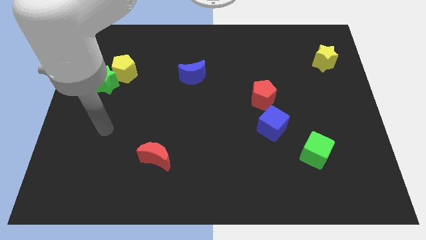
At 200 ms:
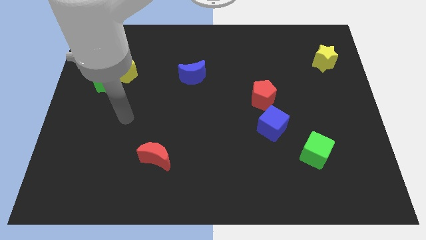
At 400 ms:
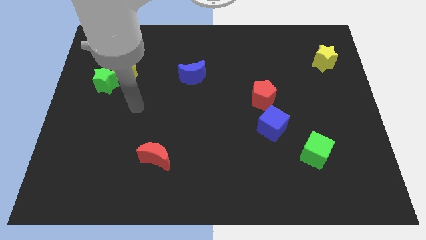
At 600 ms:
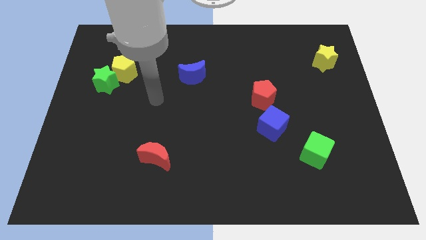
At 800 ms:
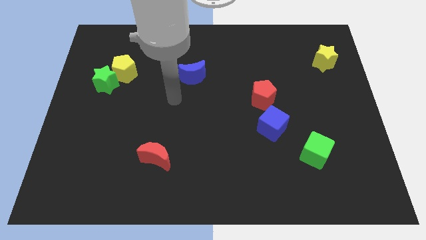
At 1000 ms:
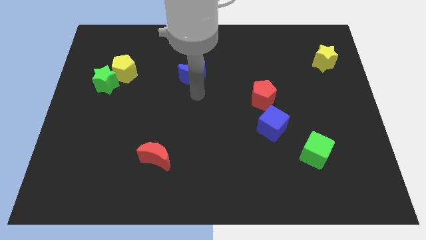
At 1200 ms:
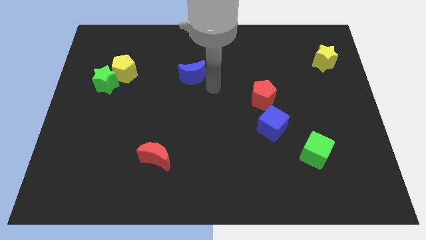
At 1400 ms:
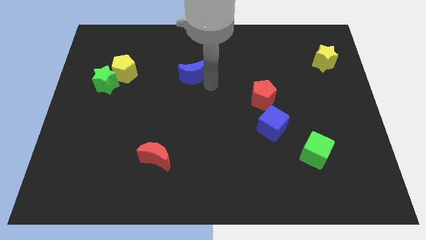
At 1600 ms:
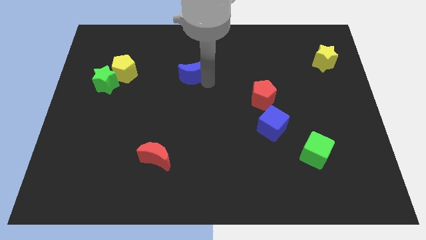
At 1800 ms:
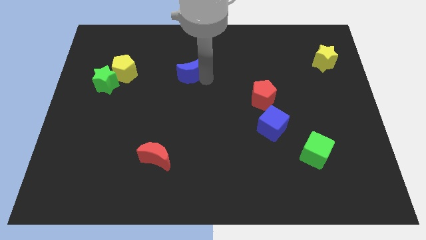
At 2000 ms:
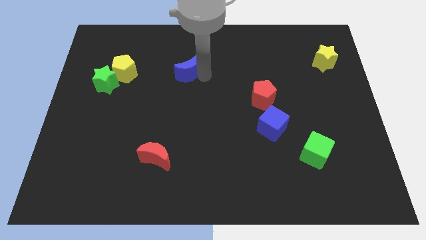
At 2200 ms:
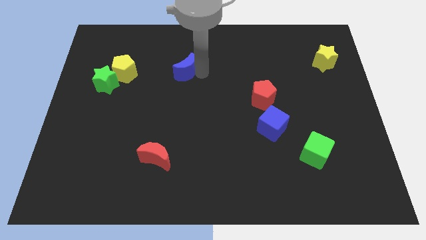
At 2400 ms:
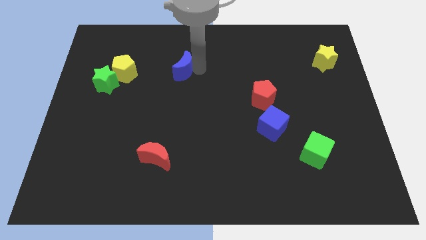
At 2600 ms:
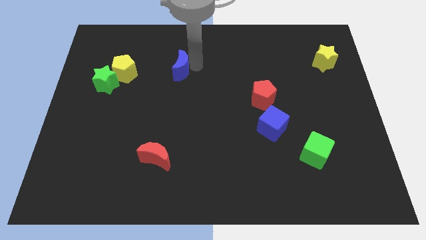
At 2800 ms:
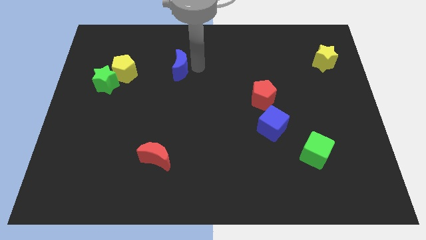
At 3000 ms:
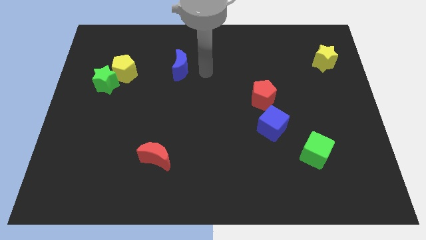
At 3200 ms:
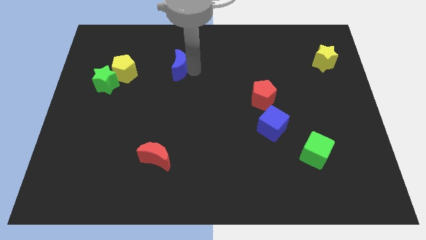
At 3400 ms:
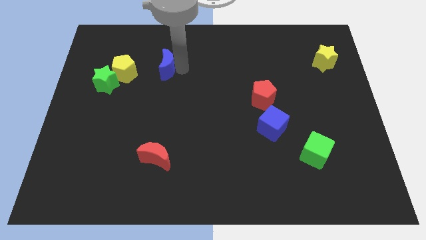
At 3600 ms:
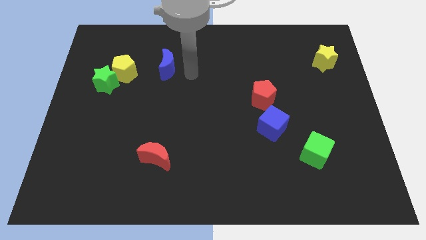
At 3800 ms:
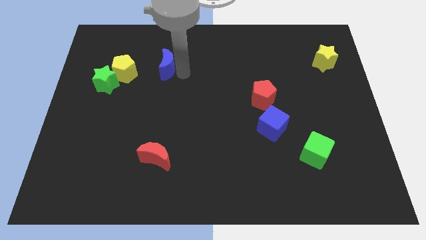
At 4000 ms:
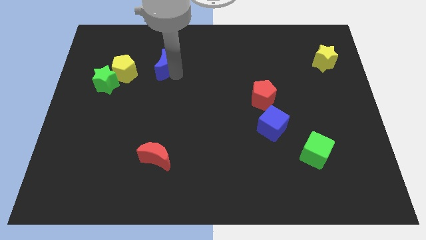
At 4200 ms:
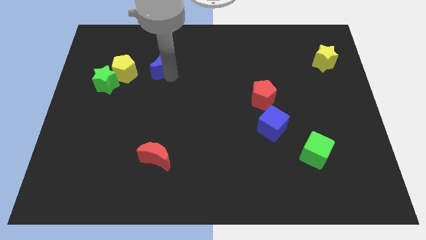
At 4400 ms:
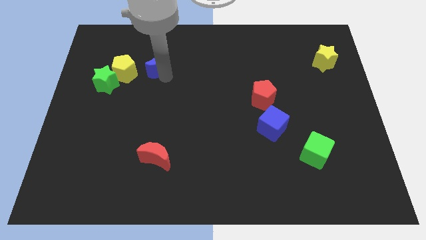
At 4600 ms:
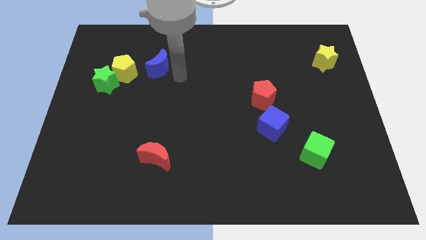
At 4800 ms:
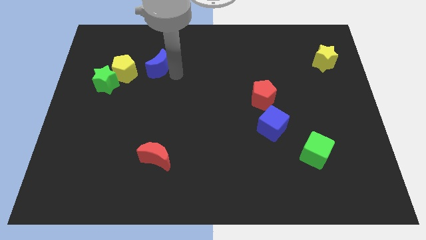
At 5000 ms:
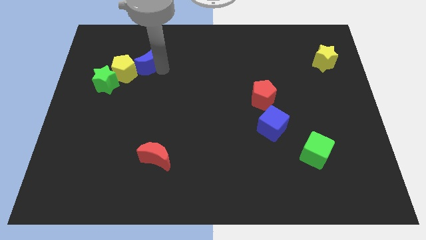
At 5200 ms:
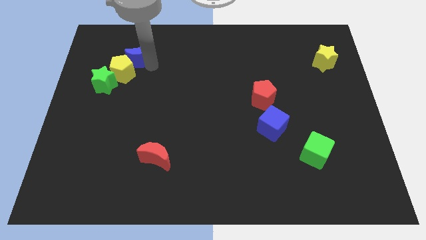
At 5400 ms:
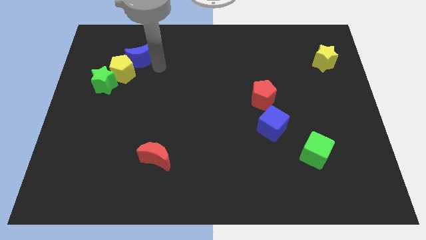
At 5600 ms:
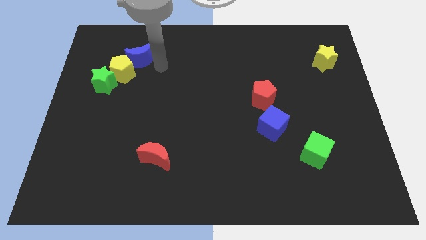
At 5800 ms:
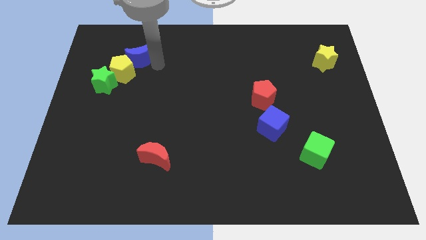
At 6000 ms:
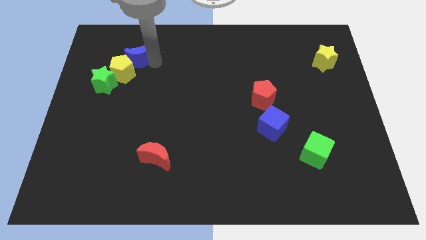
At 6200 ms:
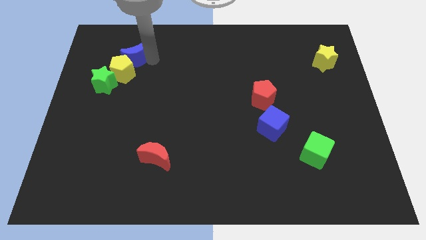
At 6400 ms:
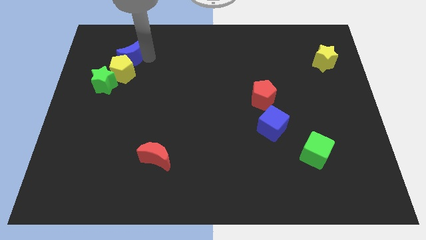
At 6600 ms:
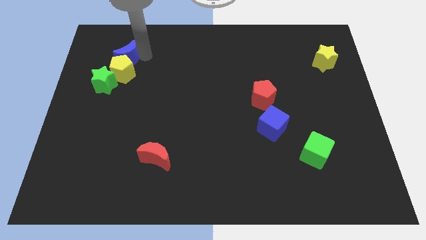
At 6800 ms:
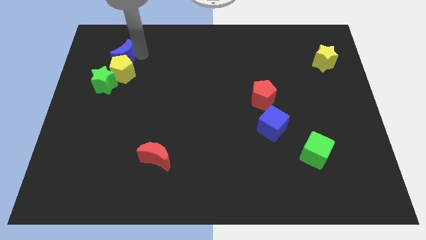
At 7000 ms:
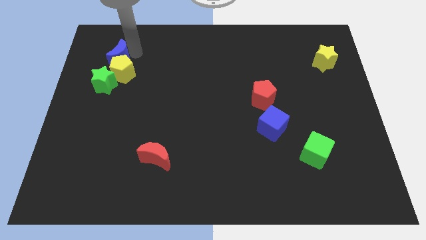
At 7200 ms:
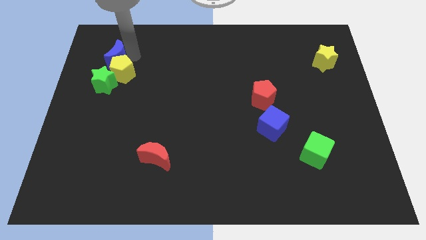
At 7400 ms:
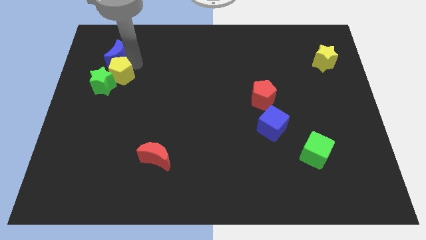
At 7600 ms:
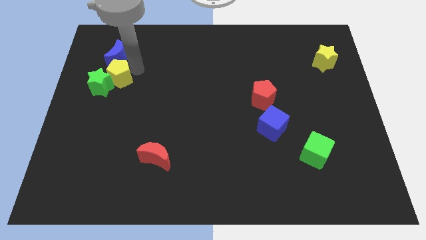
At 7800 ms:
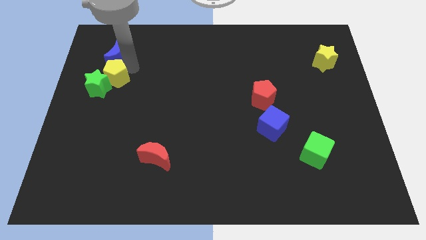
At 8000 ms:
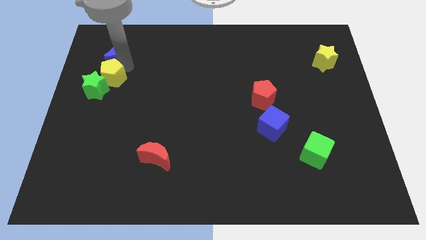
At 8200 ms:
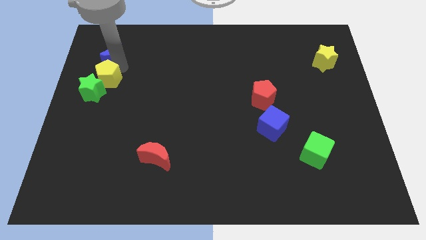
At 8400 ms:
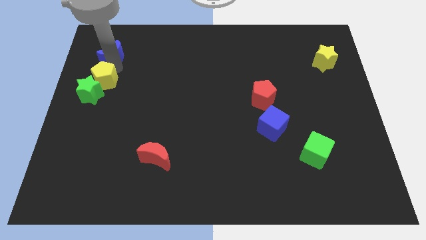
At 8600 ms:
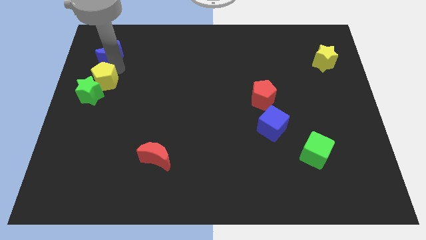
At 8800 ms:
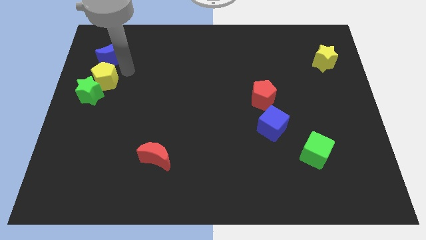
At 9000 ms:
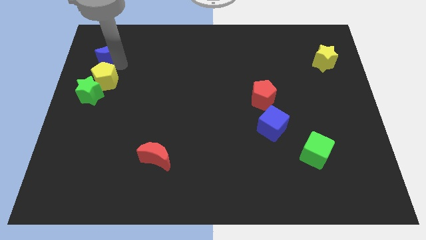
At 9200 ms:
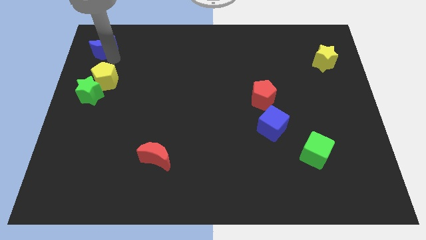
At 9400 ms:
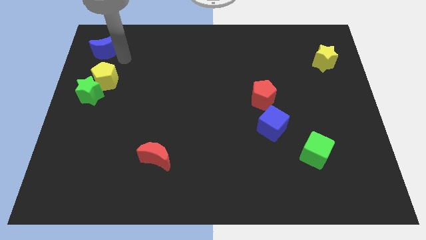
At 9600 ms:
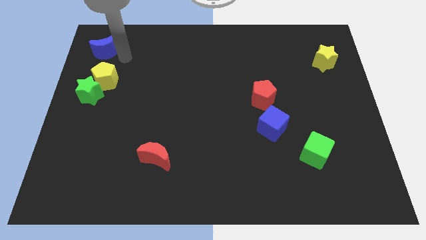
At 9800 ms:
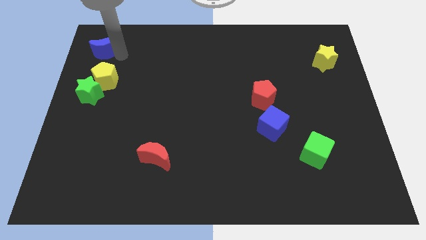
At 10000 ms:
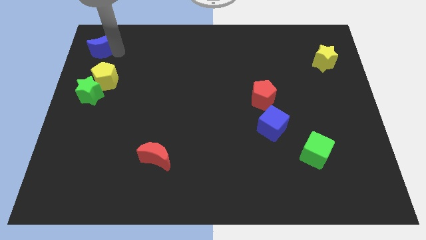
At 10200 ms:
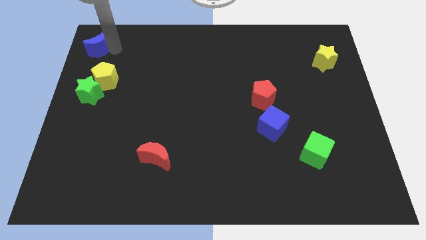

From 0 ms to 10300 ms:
slide the blue moon to the top left

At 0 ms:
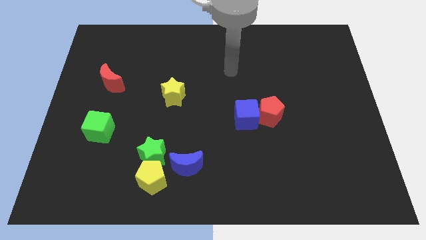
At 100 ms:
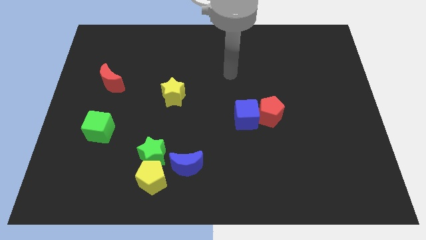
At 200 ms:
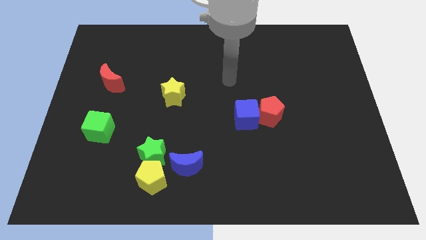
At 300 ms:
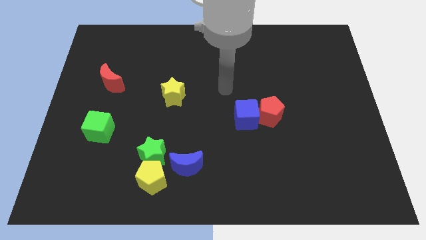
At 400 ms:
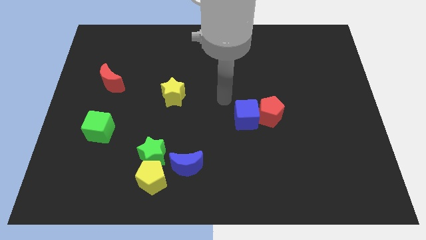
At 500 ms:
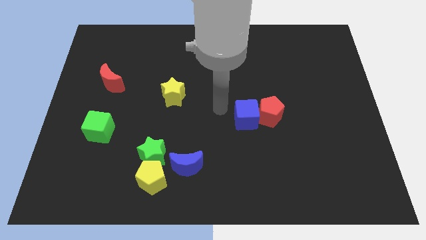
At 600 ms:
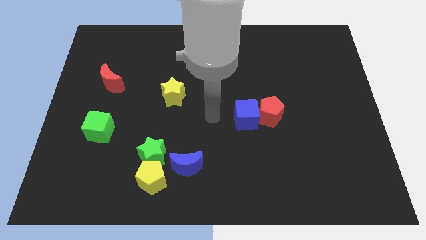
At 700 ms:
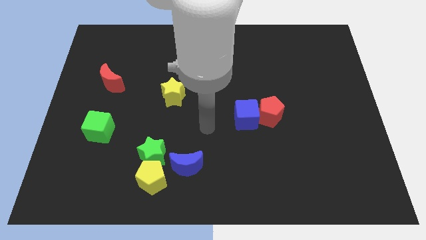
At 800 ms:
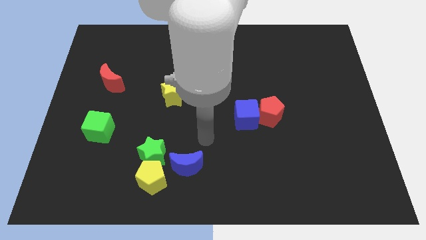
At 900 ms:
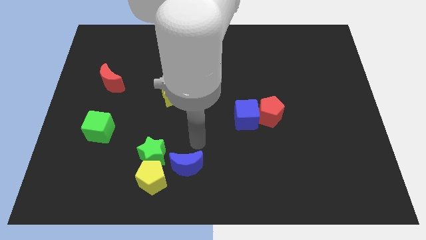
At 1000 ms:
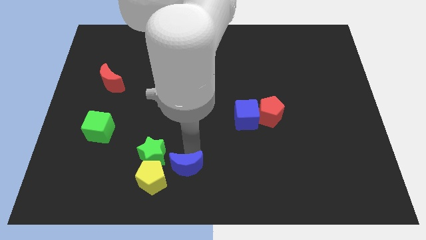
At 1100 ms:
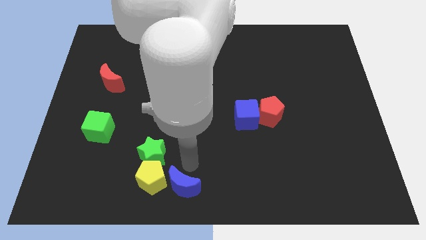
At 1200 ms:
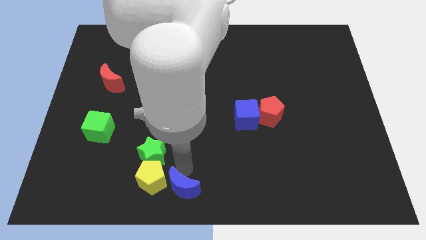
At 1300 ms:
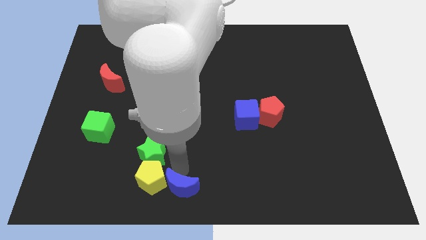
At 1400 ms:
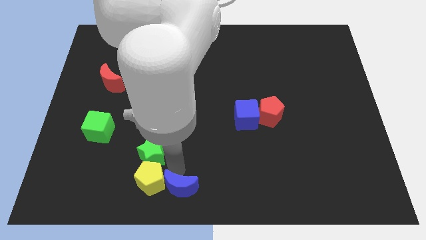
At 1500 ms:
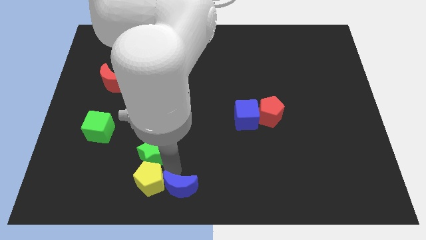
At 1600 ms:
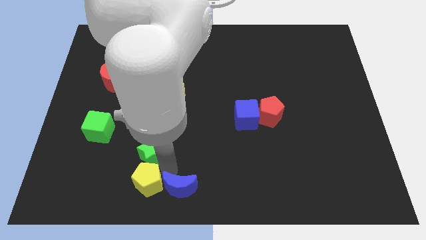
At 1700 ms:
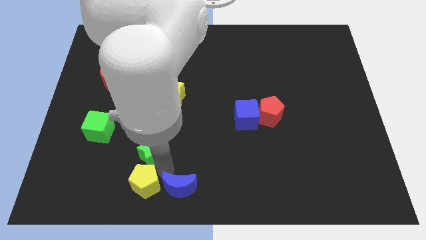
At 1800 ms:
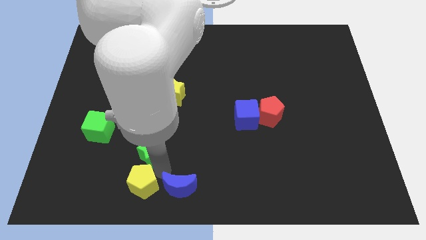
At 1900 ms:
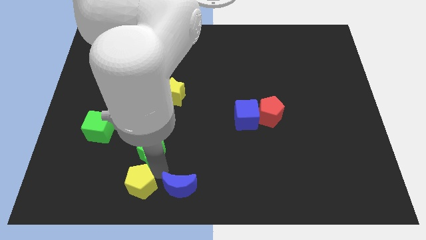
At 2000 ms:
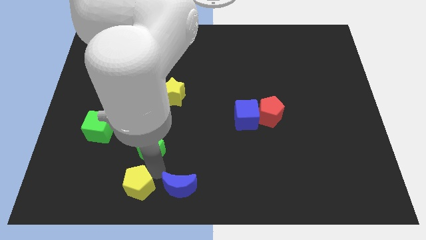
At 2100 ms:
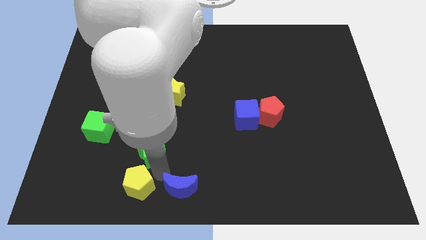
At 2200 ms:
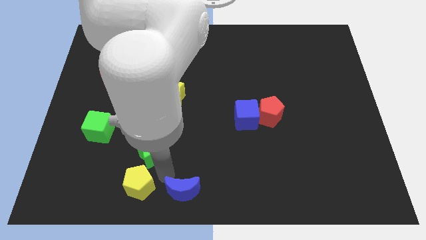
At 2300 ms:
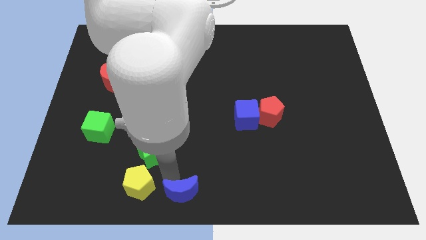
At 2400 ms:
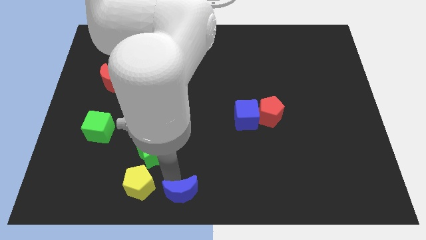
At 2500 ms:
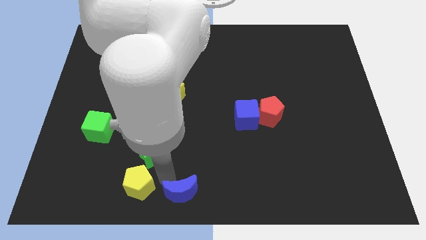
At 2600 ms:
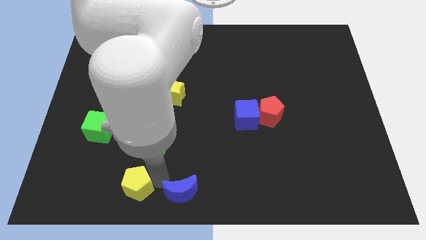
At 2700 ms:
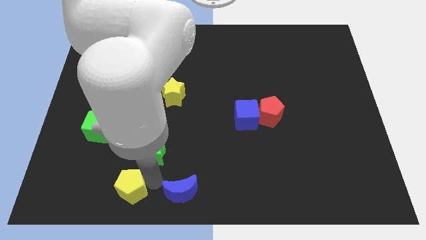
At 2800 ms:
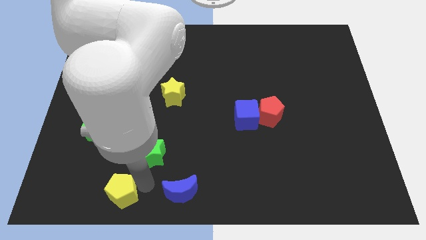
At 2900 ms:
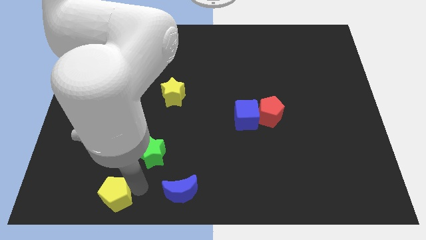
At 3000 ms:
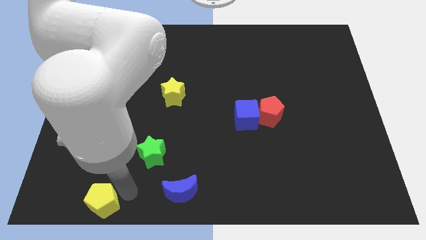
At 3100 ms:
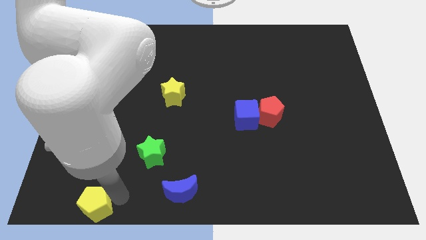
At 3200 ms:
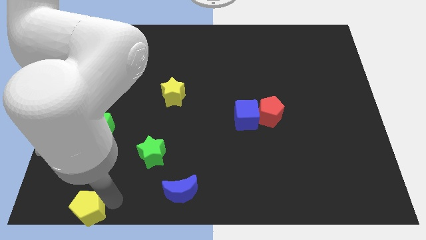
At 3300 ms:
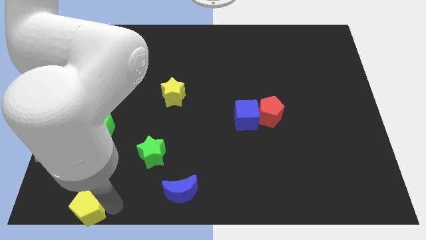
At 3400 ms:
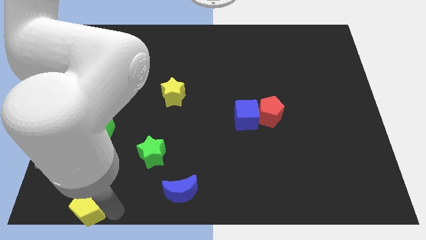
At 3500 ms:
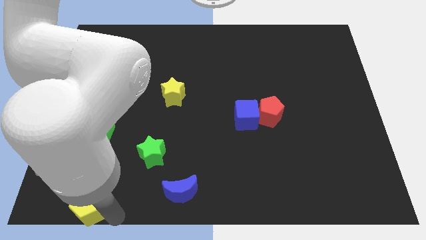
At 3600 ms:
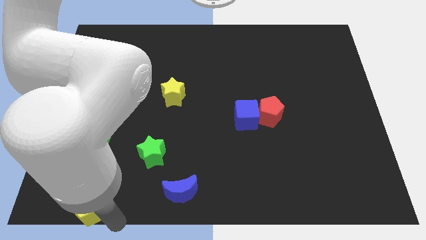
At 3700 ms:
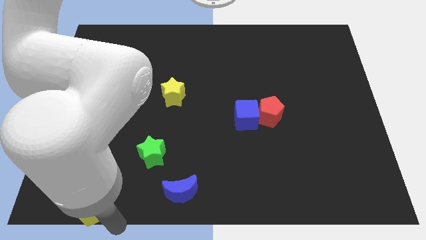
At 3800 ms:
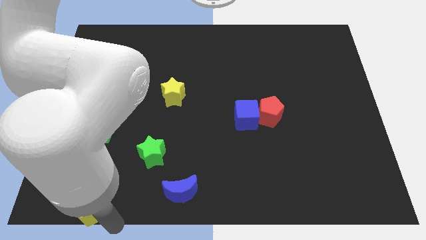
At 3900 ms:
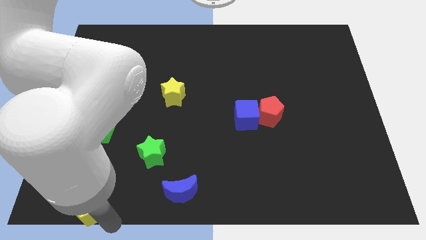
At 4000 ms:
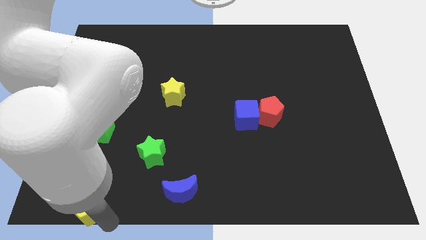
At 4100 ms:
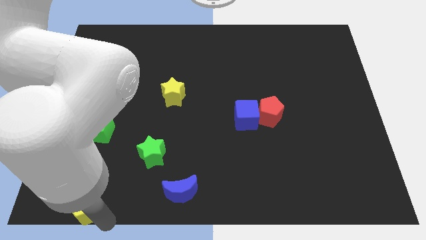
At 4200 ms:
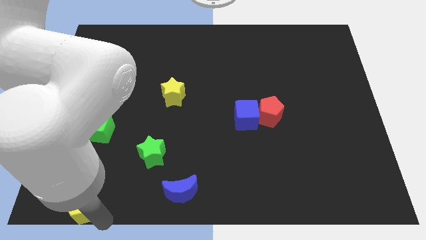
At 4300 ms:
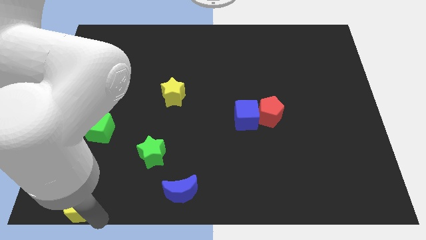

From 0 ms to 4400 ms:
put the yellow pentagon to the bottom left of the board
